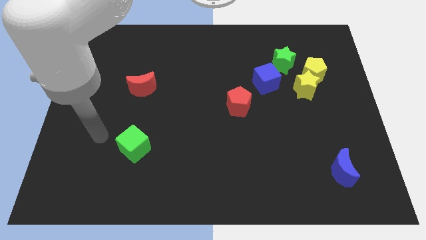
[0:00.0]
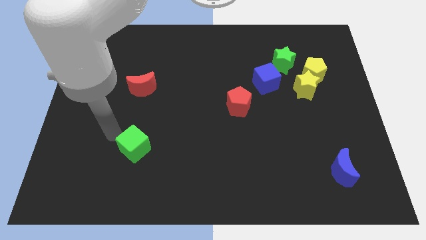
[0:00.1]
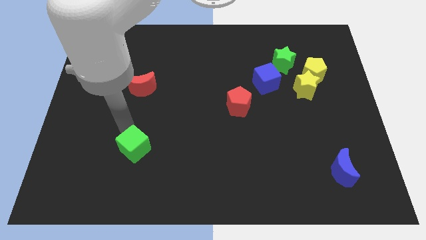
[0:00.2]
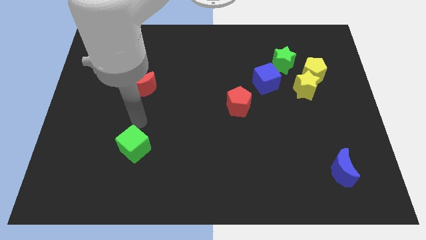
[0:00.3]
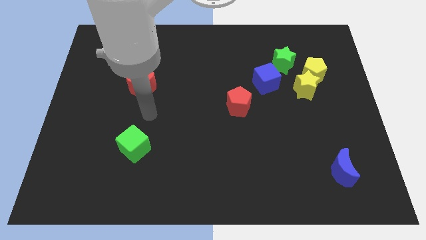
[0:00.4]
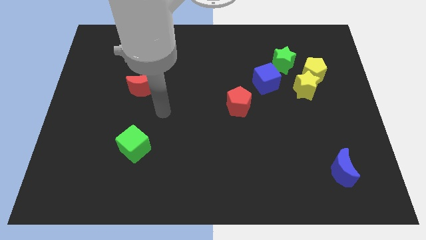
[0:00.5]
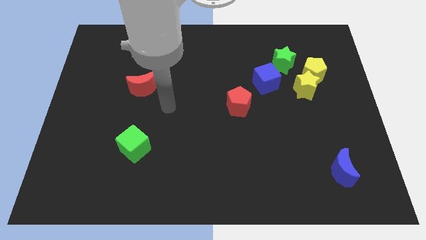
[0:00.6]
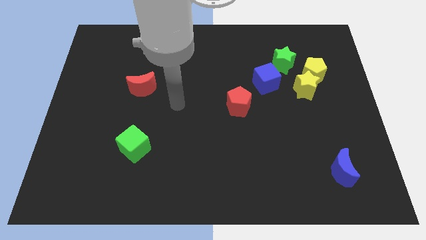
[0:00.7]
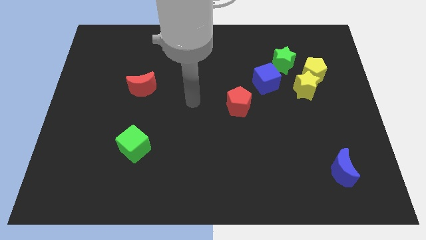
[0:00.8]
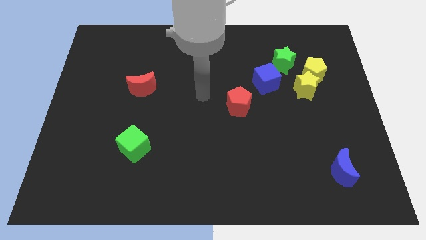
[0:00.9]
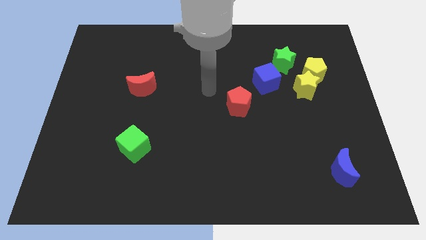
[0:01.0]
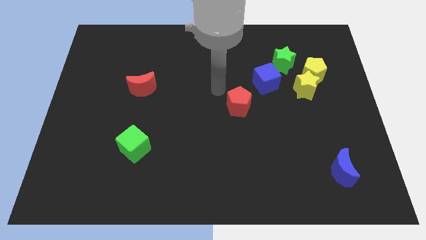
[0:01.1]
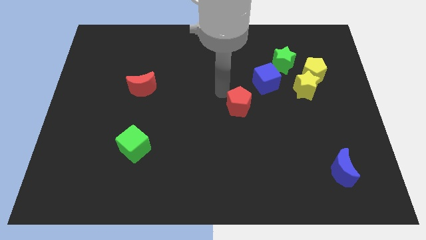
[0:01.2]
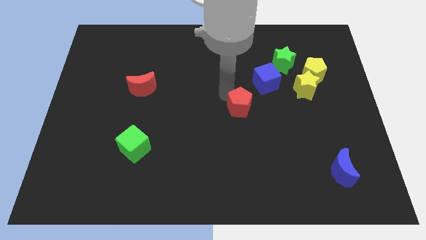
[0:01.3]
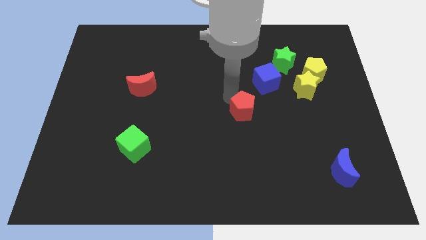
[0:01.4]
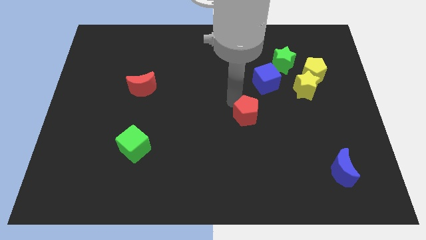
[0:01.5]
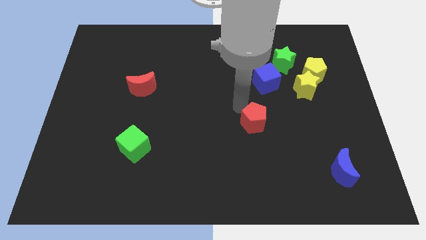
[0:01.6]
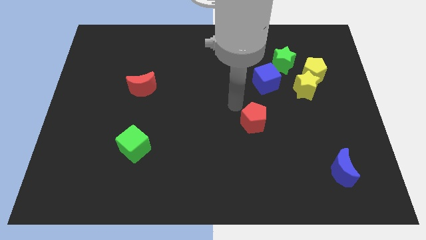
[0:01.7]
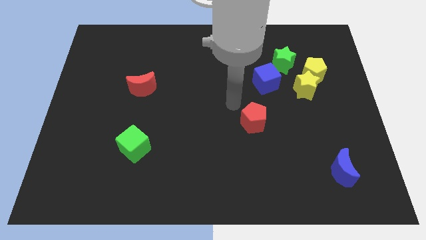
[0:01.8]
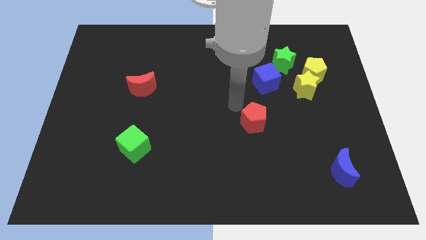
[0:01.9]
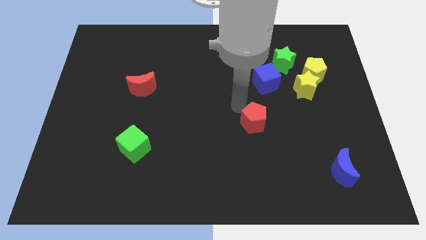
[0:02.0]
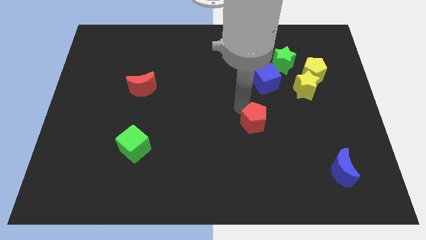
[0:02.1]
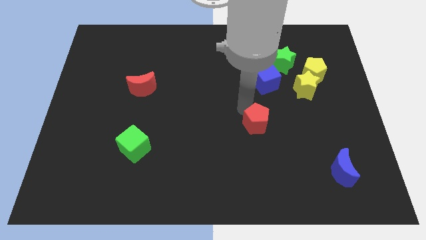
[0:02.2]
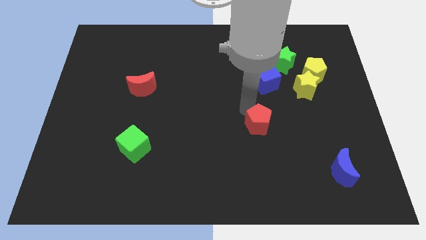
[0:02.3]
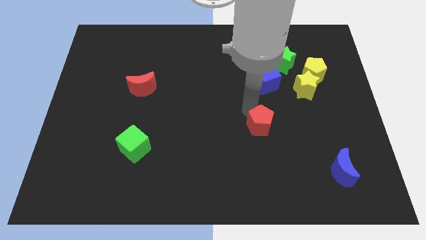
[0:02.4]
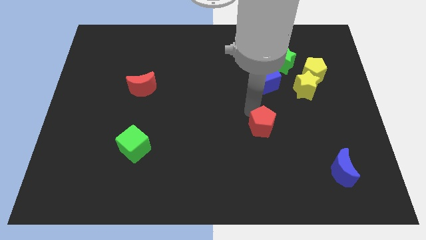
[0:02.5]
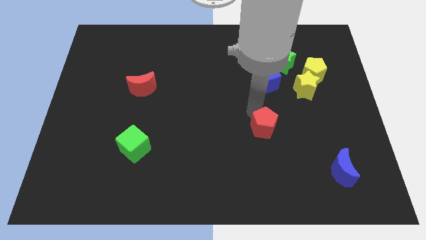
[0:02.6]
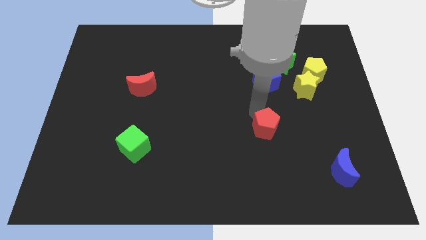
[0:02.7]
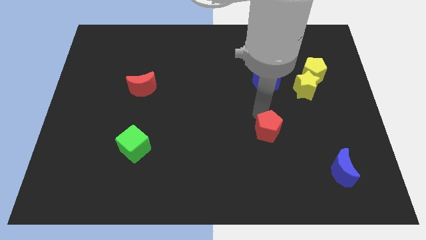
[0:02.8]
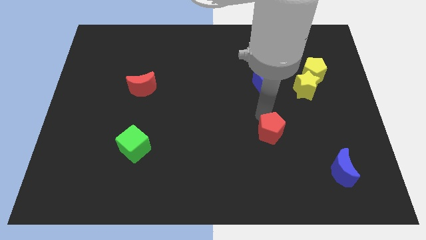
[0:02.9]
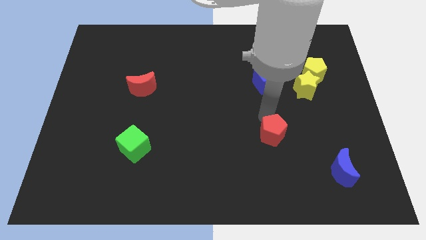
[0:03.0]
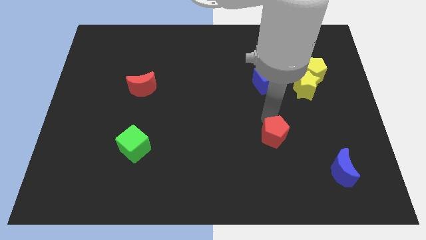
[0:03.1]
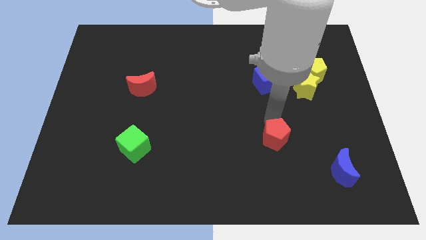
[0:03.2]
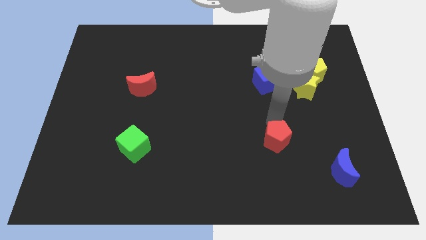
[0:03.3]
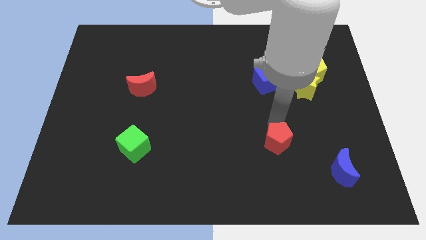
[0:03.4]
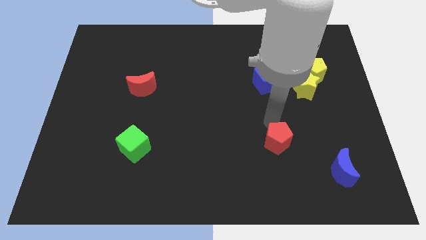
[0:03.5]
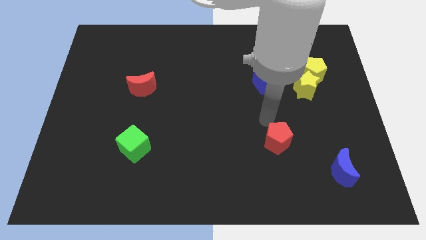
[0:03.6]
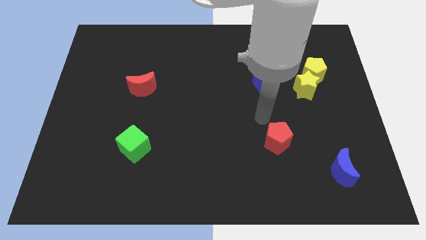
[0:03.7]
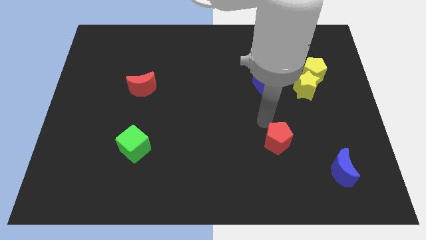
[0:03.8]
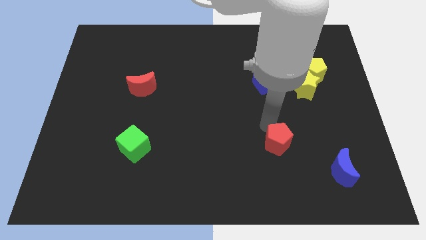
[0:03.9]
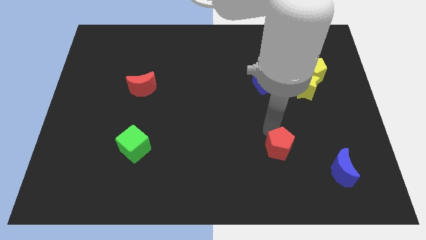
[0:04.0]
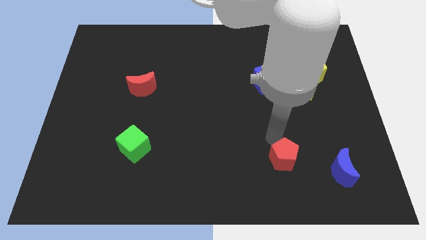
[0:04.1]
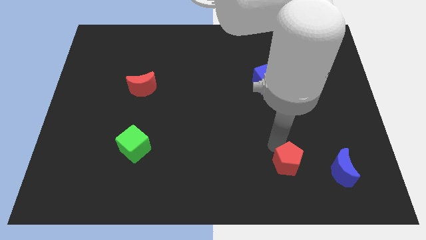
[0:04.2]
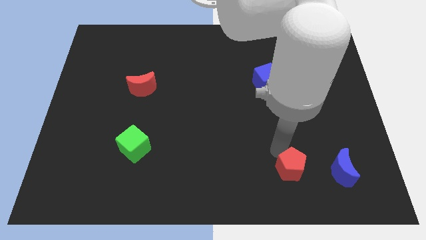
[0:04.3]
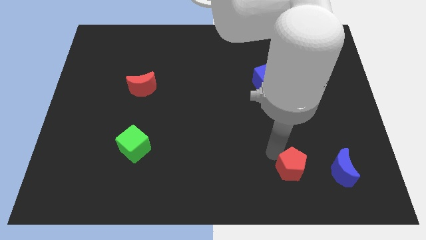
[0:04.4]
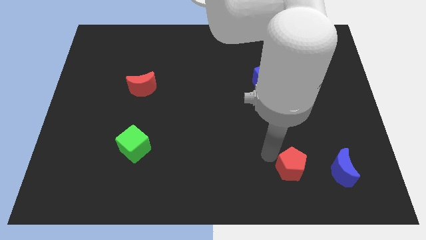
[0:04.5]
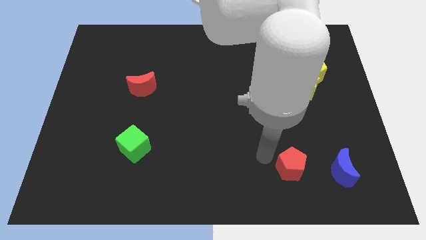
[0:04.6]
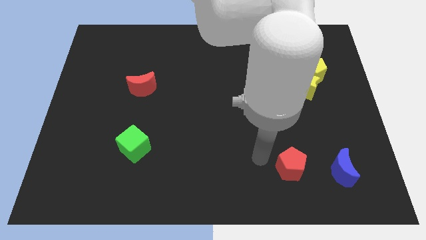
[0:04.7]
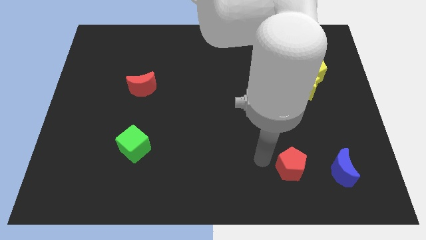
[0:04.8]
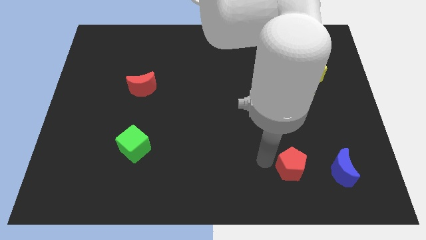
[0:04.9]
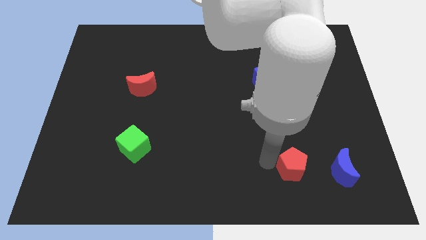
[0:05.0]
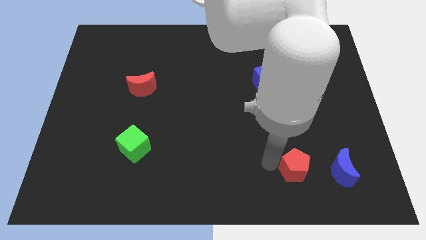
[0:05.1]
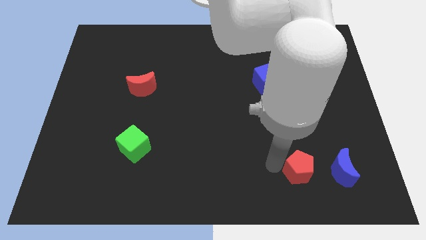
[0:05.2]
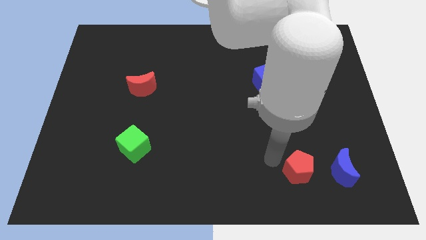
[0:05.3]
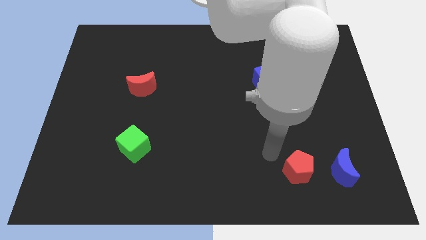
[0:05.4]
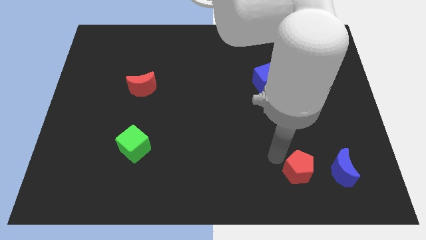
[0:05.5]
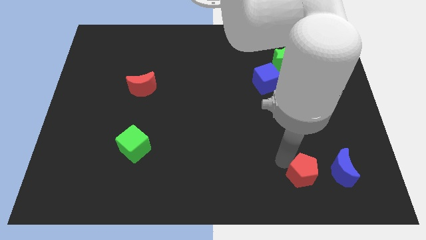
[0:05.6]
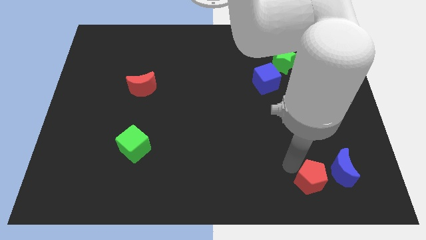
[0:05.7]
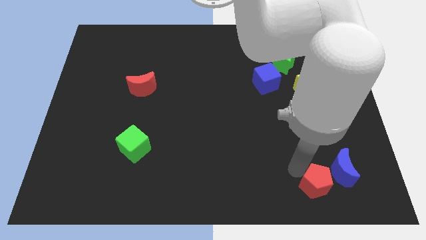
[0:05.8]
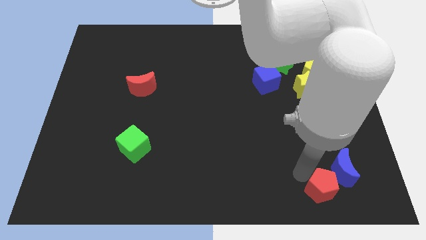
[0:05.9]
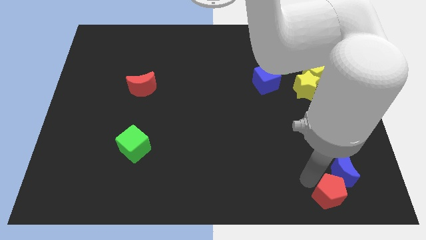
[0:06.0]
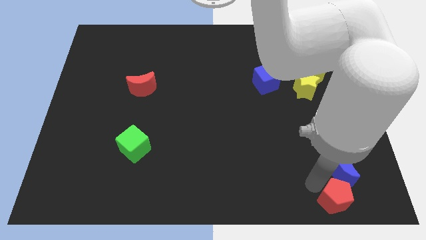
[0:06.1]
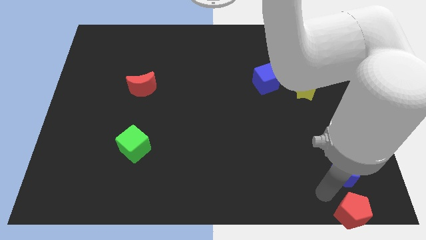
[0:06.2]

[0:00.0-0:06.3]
move the red pentagon to the lower right corner
